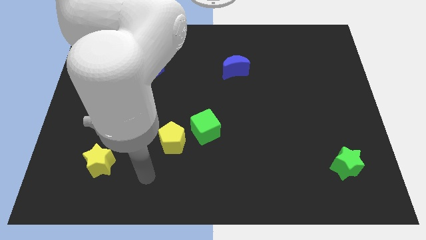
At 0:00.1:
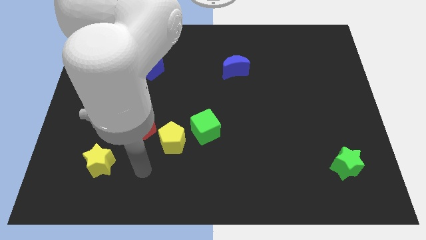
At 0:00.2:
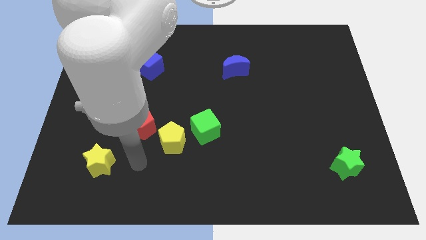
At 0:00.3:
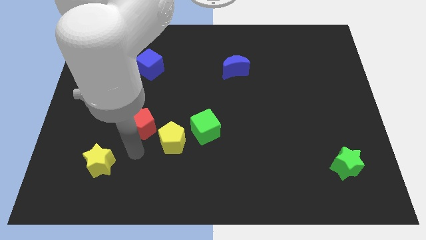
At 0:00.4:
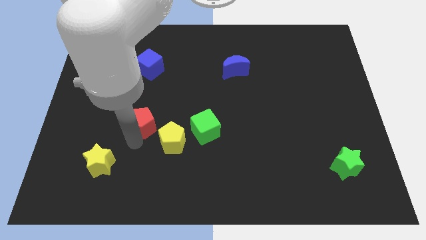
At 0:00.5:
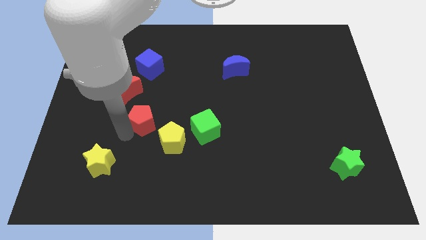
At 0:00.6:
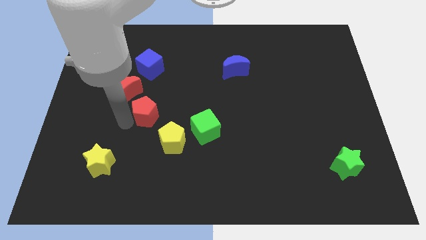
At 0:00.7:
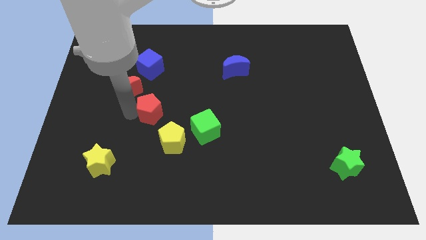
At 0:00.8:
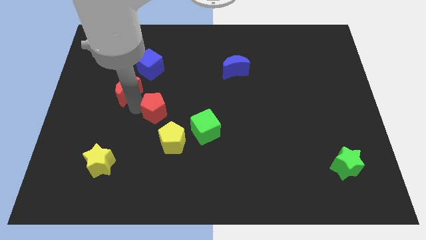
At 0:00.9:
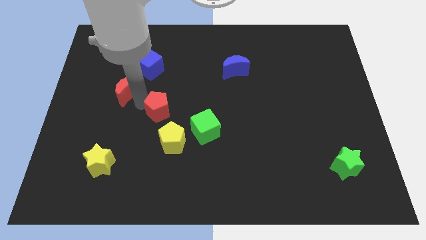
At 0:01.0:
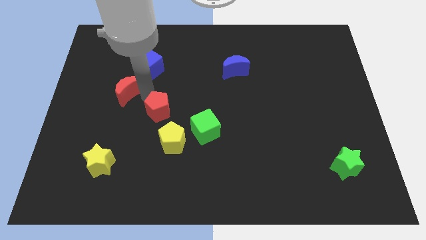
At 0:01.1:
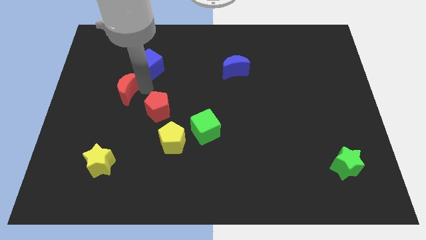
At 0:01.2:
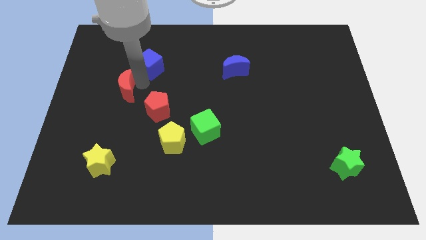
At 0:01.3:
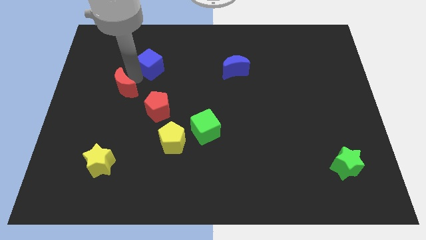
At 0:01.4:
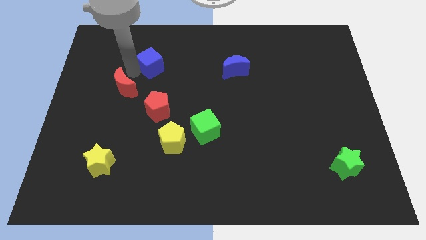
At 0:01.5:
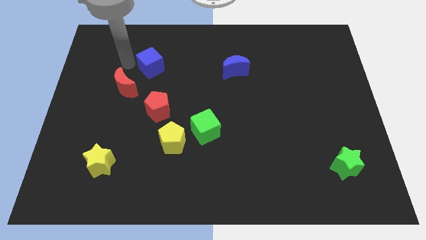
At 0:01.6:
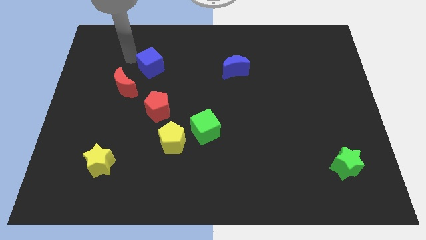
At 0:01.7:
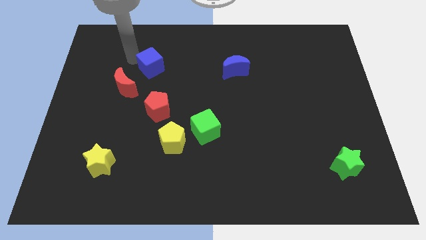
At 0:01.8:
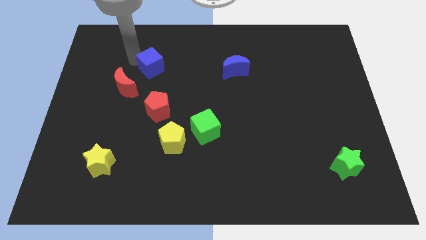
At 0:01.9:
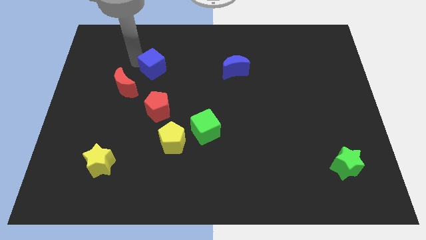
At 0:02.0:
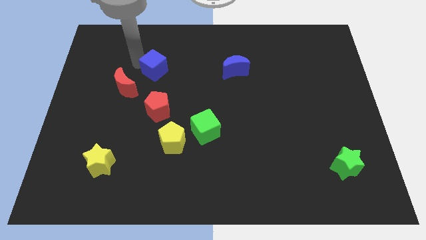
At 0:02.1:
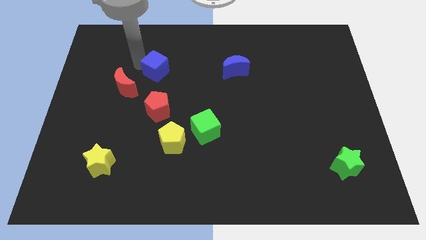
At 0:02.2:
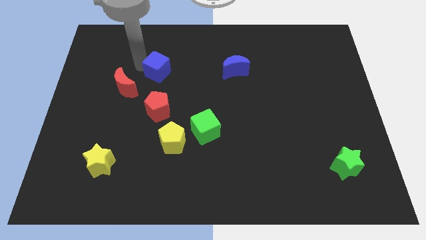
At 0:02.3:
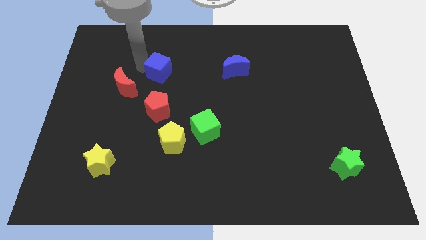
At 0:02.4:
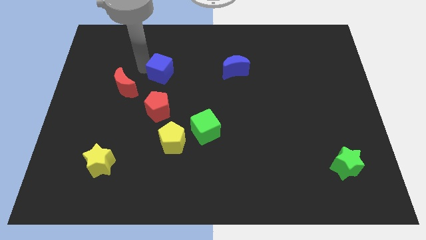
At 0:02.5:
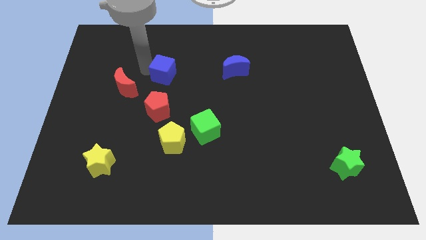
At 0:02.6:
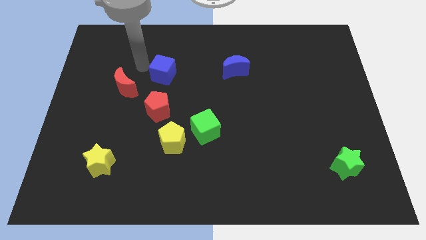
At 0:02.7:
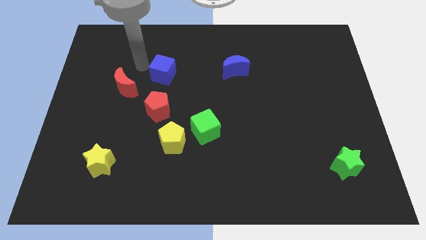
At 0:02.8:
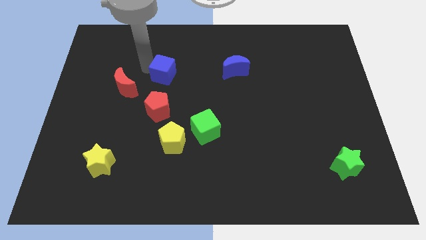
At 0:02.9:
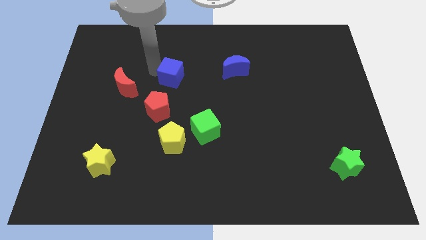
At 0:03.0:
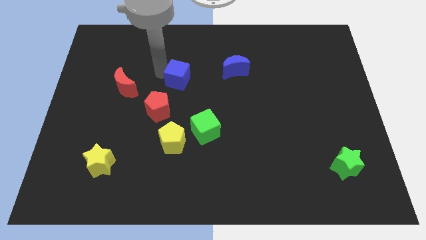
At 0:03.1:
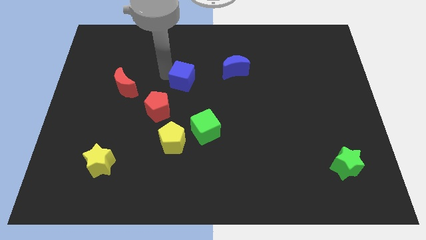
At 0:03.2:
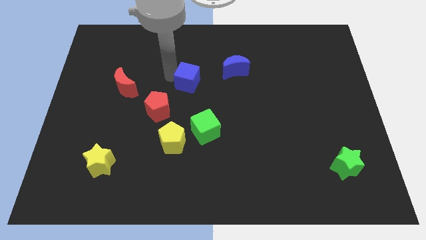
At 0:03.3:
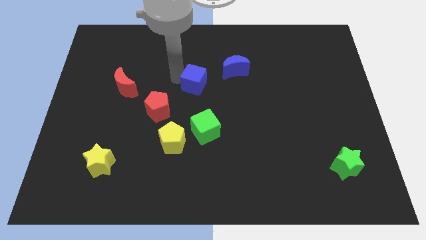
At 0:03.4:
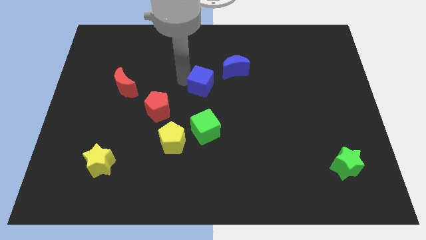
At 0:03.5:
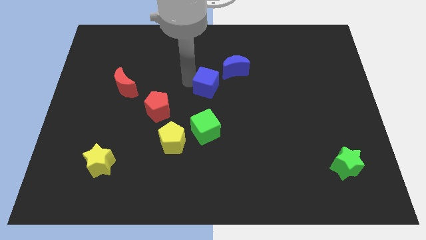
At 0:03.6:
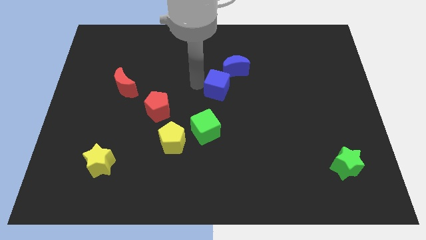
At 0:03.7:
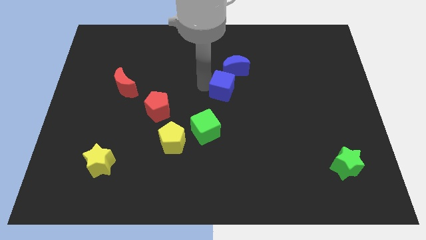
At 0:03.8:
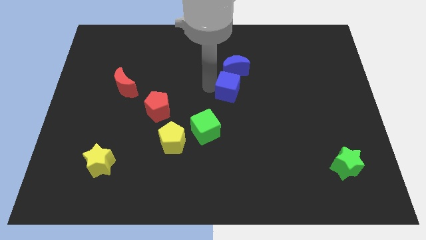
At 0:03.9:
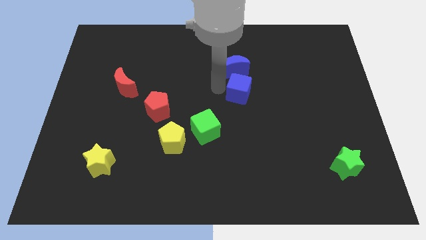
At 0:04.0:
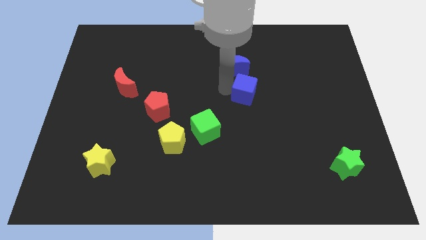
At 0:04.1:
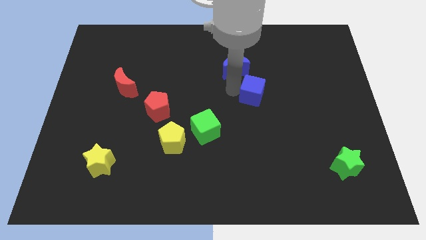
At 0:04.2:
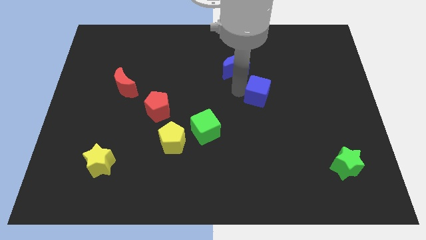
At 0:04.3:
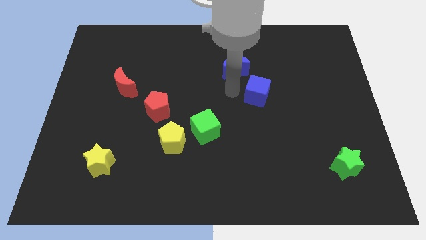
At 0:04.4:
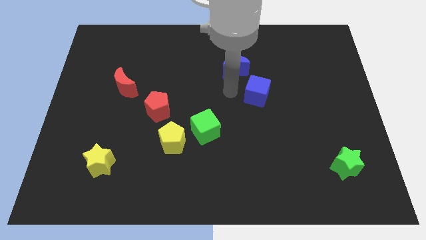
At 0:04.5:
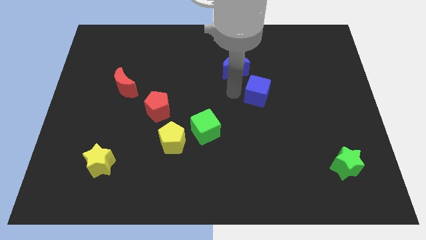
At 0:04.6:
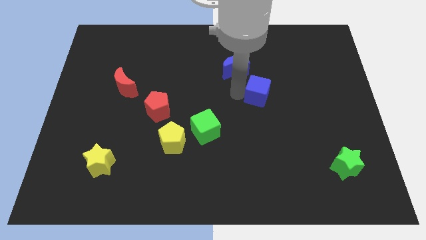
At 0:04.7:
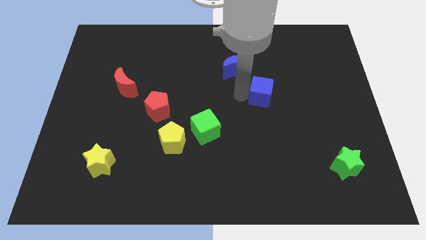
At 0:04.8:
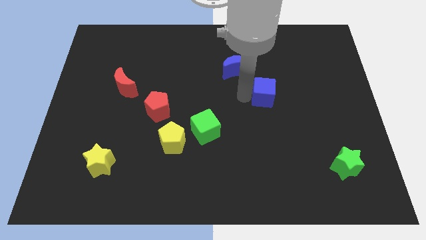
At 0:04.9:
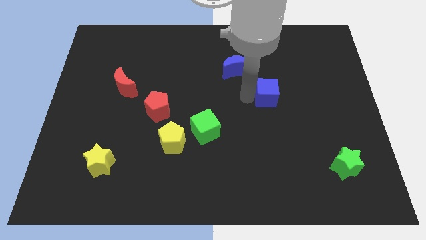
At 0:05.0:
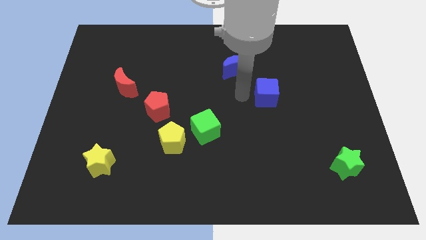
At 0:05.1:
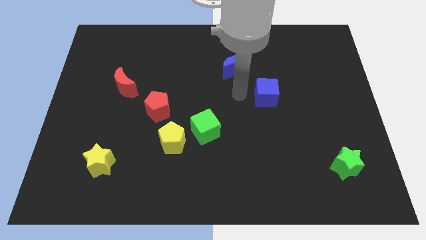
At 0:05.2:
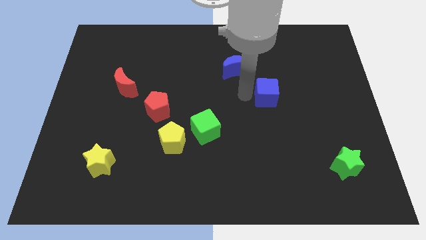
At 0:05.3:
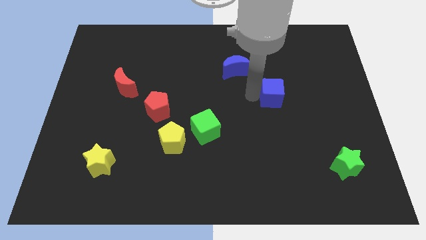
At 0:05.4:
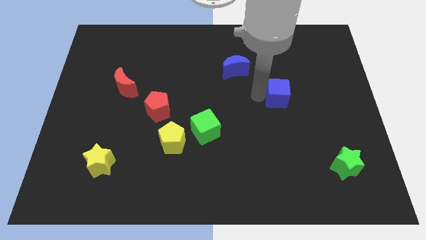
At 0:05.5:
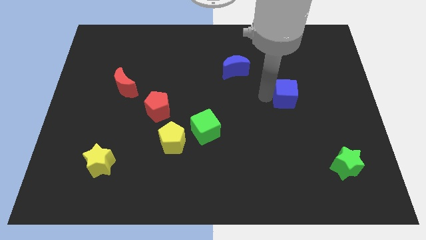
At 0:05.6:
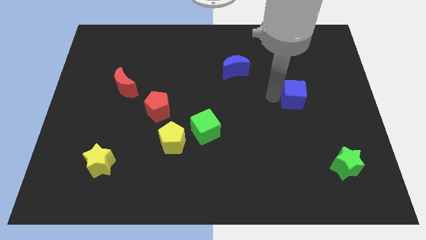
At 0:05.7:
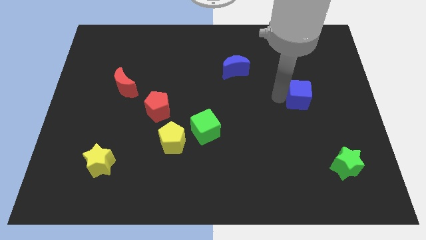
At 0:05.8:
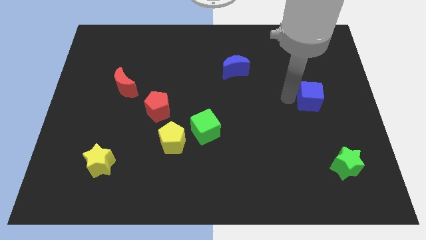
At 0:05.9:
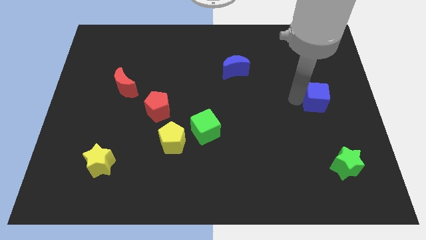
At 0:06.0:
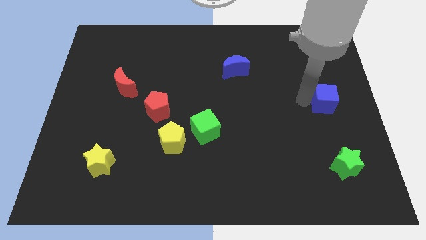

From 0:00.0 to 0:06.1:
move the blue cube to the center right
